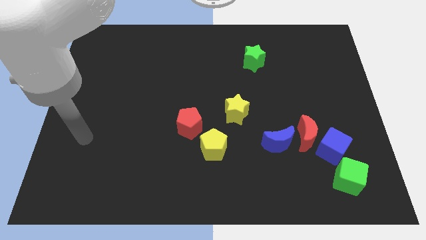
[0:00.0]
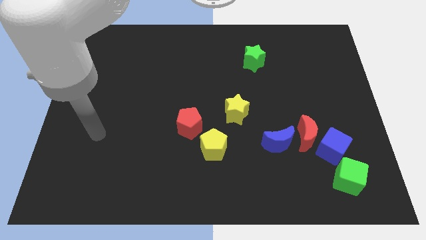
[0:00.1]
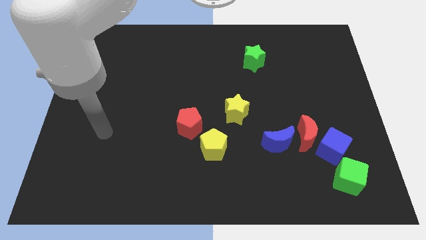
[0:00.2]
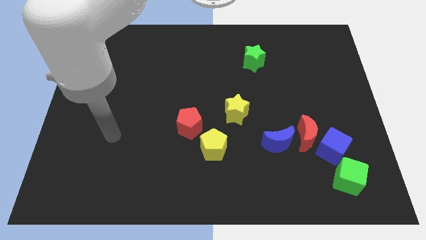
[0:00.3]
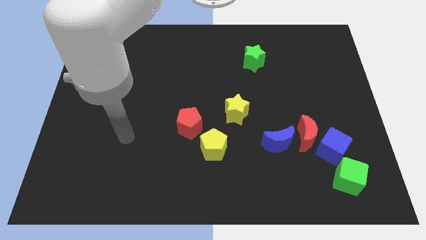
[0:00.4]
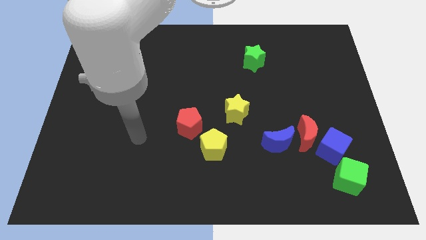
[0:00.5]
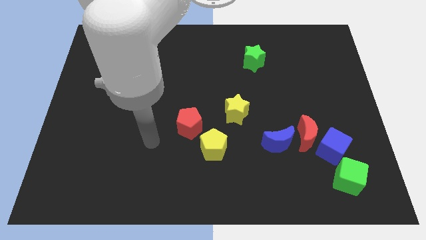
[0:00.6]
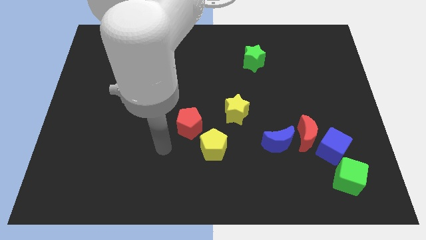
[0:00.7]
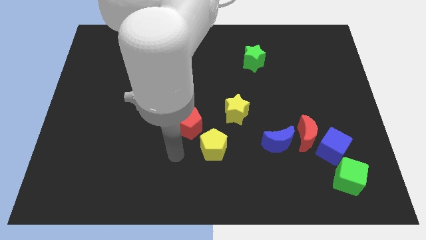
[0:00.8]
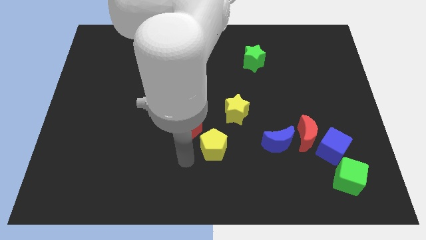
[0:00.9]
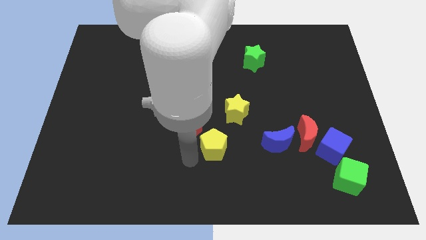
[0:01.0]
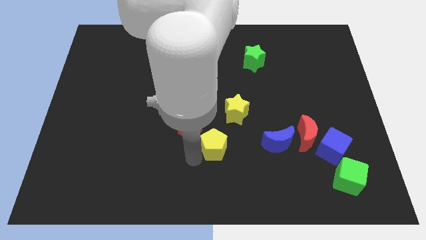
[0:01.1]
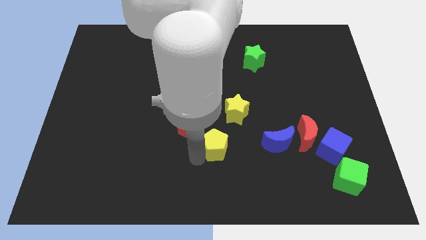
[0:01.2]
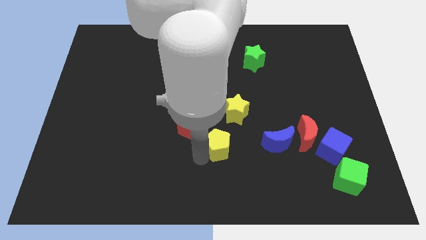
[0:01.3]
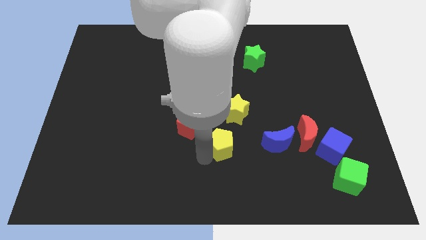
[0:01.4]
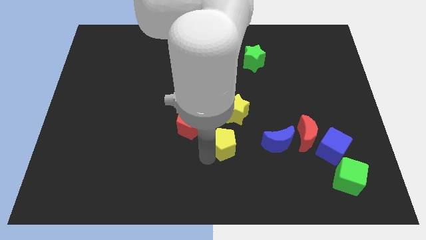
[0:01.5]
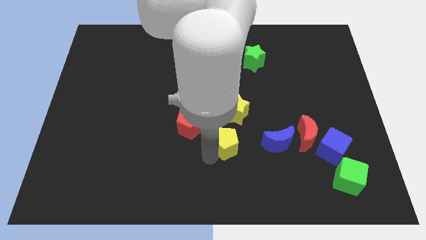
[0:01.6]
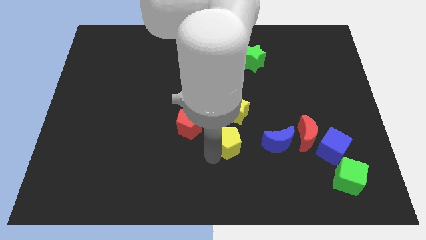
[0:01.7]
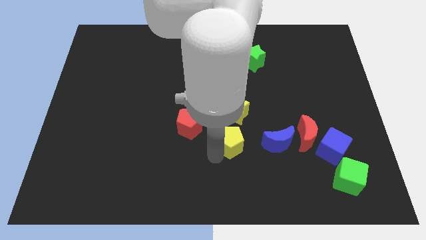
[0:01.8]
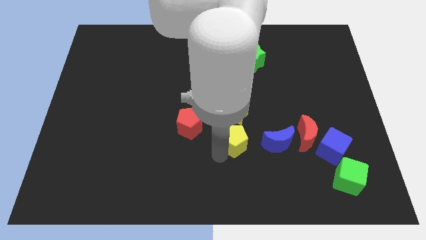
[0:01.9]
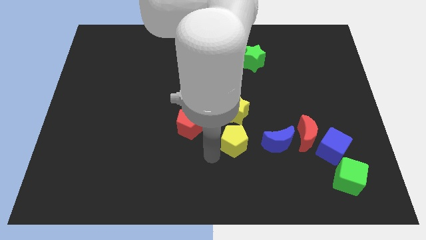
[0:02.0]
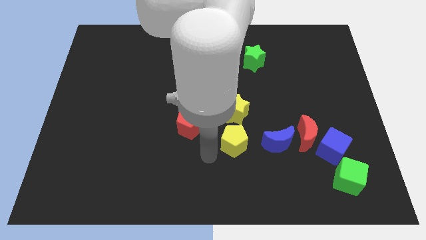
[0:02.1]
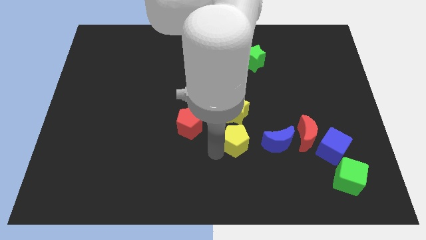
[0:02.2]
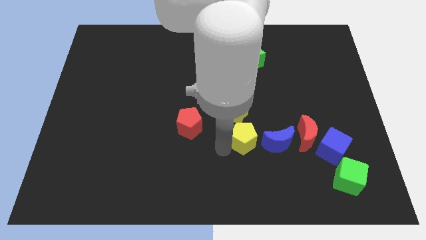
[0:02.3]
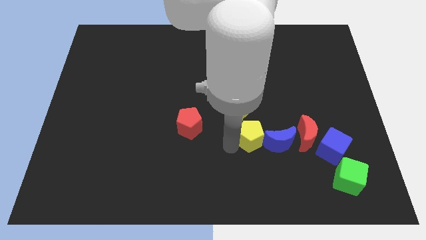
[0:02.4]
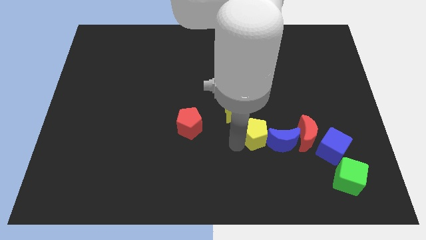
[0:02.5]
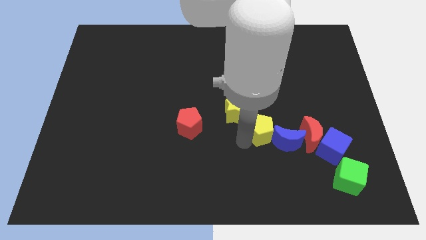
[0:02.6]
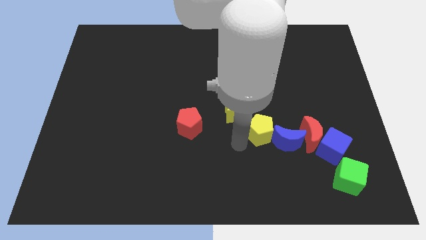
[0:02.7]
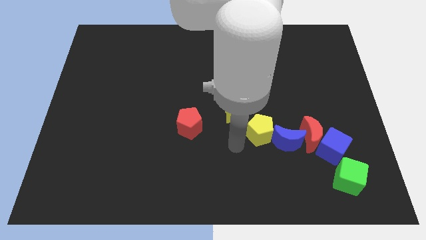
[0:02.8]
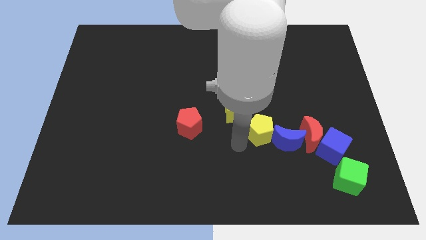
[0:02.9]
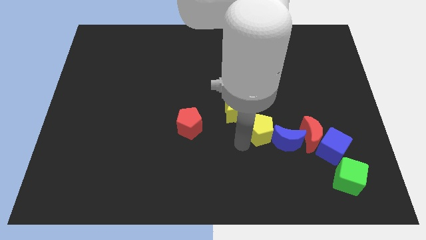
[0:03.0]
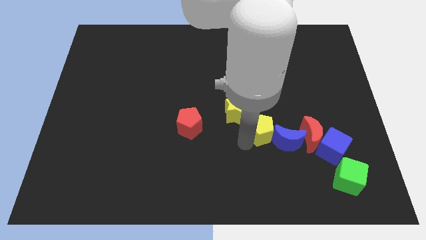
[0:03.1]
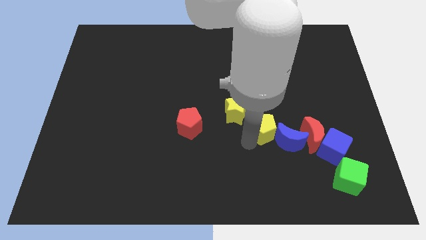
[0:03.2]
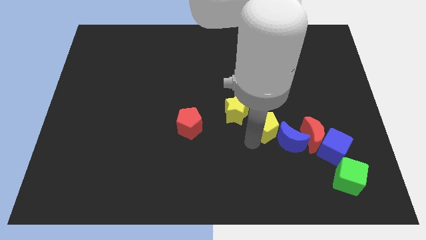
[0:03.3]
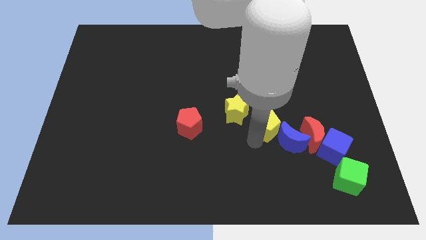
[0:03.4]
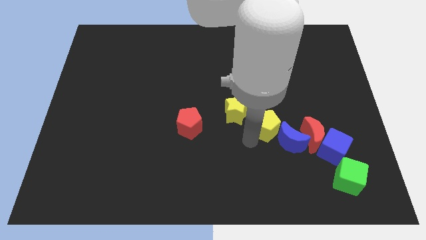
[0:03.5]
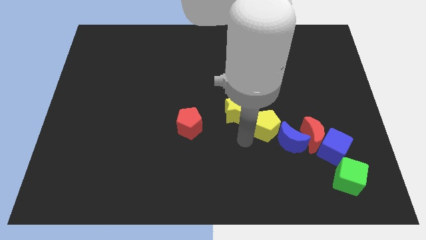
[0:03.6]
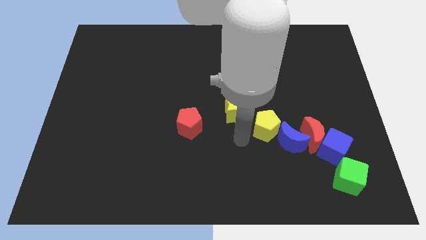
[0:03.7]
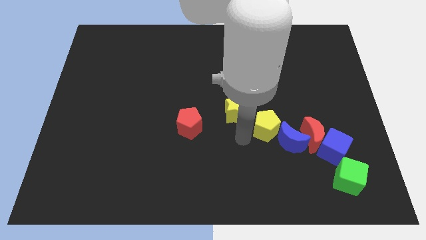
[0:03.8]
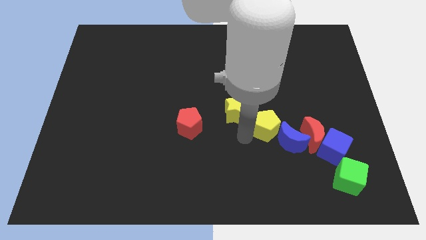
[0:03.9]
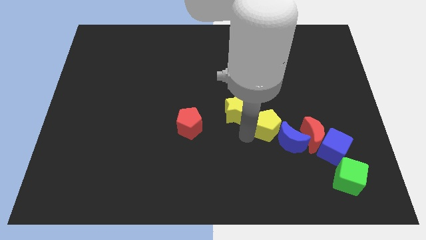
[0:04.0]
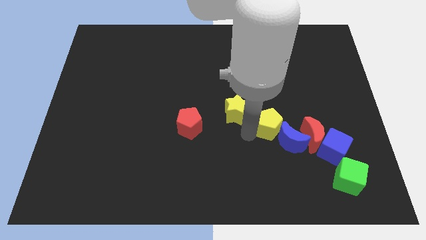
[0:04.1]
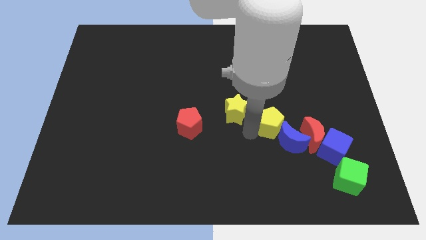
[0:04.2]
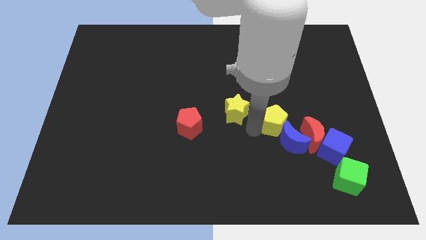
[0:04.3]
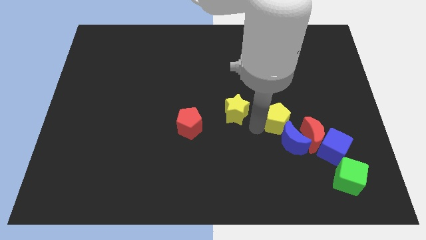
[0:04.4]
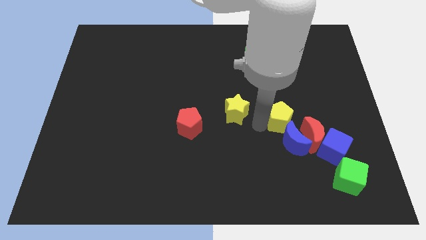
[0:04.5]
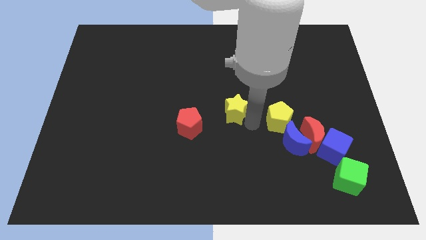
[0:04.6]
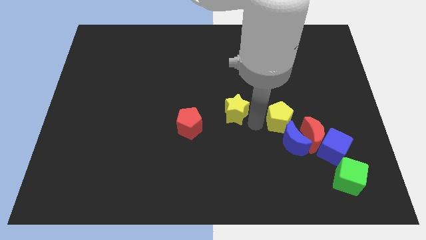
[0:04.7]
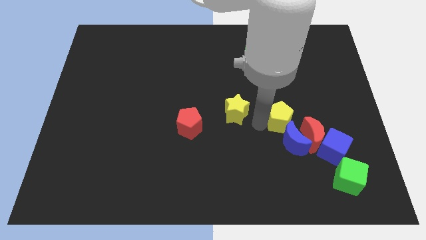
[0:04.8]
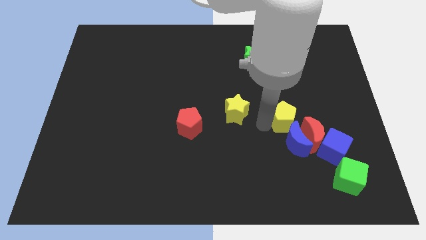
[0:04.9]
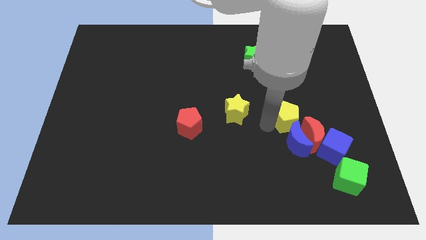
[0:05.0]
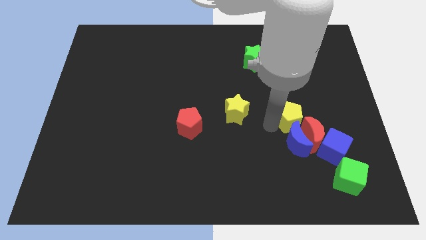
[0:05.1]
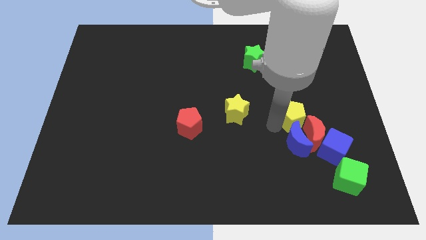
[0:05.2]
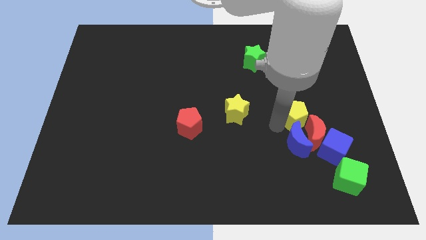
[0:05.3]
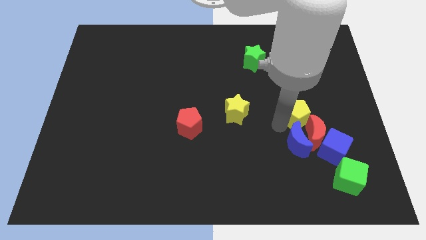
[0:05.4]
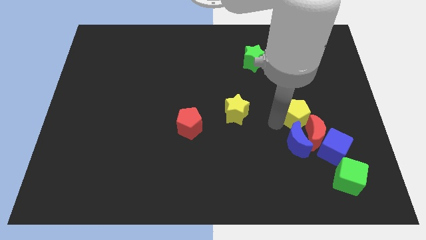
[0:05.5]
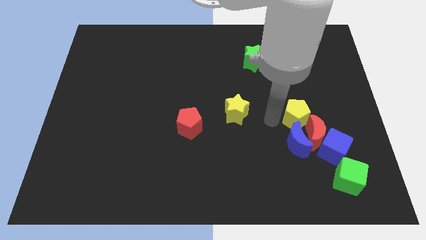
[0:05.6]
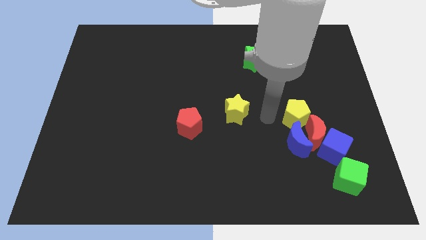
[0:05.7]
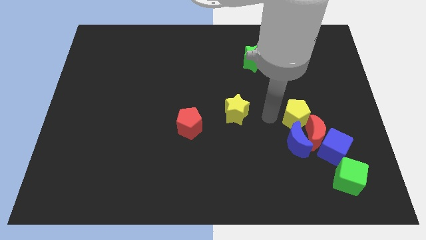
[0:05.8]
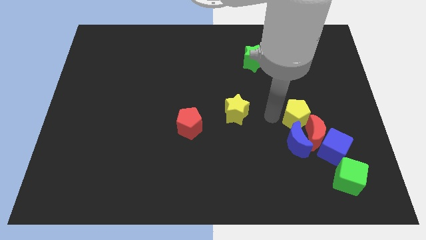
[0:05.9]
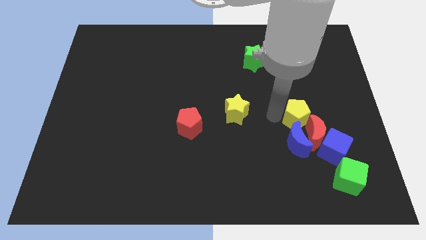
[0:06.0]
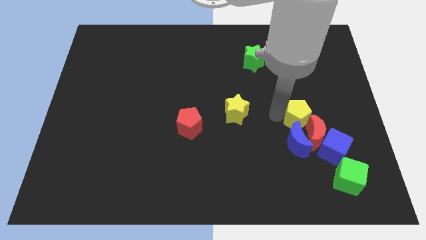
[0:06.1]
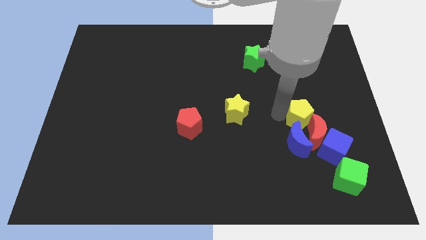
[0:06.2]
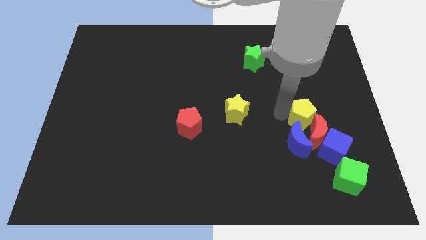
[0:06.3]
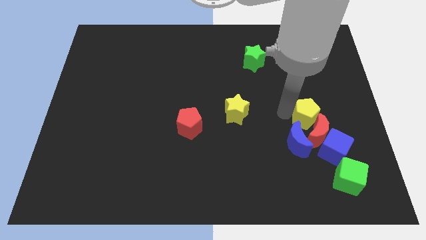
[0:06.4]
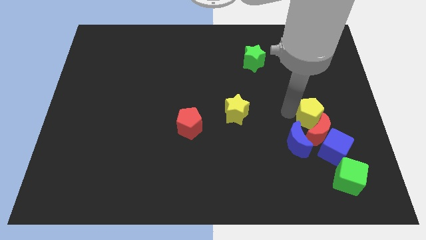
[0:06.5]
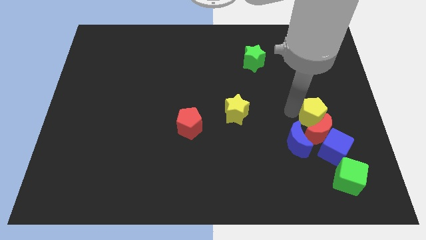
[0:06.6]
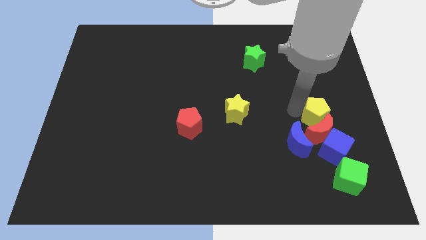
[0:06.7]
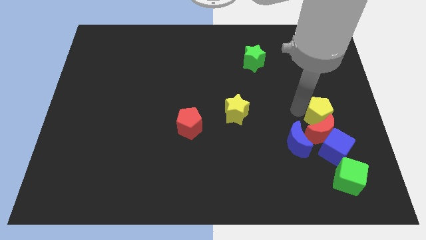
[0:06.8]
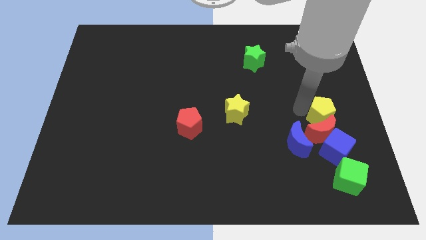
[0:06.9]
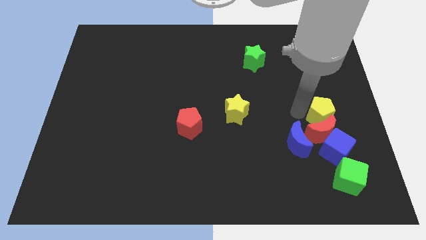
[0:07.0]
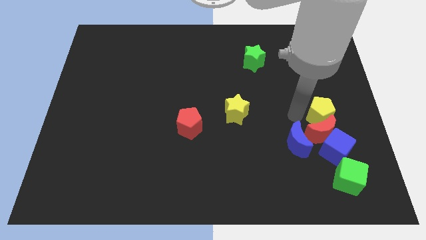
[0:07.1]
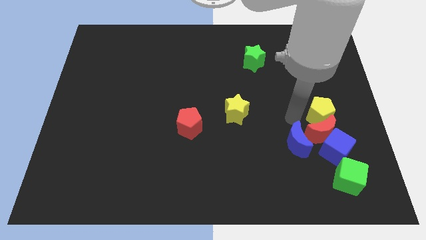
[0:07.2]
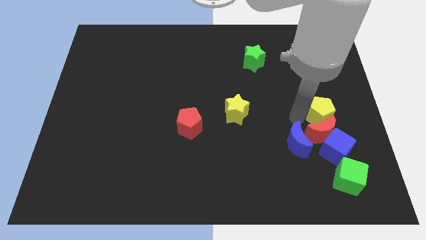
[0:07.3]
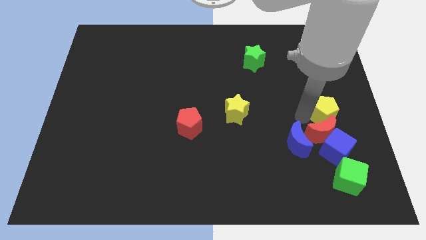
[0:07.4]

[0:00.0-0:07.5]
move the yellow pentagon to the center right
